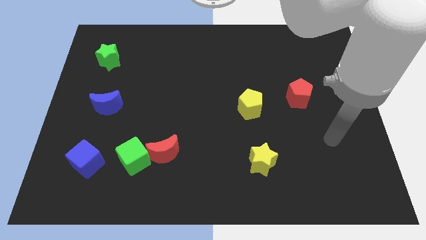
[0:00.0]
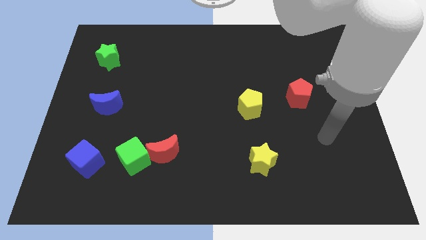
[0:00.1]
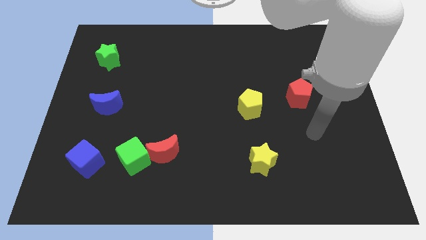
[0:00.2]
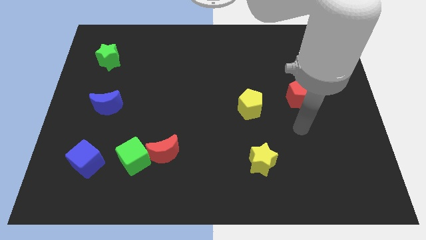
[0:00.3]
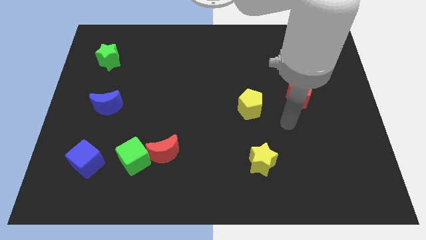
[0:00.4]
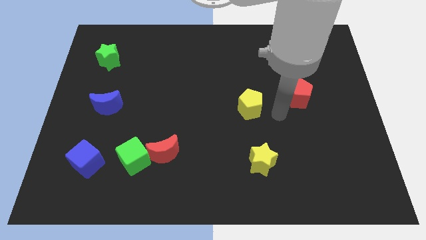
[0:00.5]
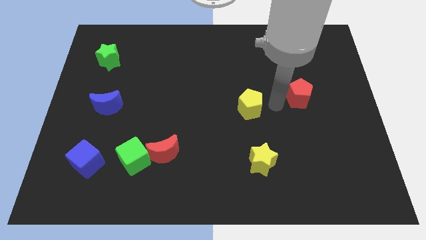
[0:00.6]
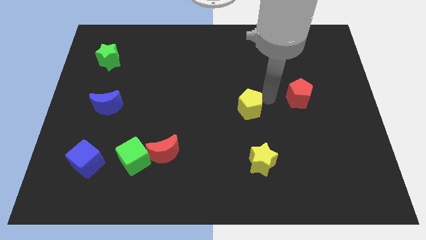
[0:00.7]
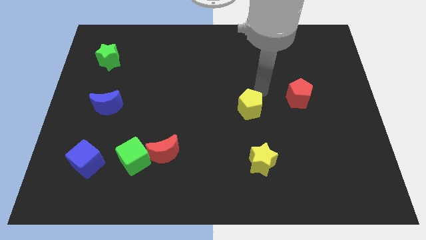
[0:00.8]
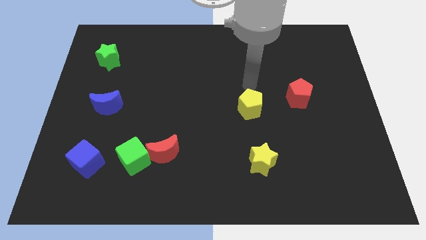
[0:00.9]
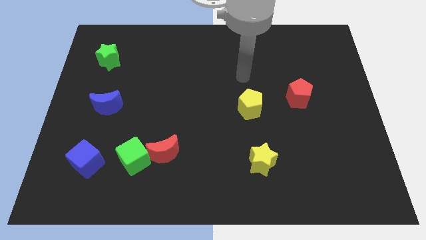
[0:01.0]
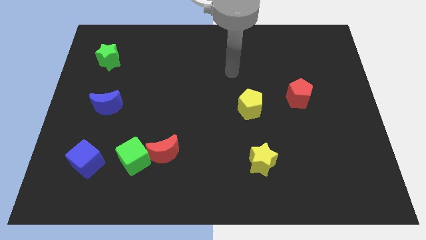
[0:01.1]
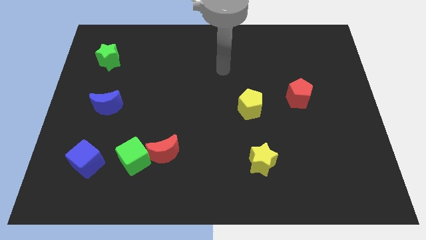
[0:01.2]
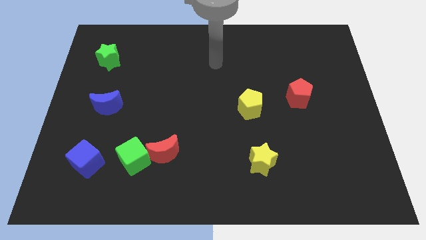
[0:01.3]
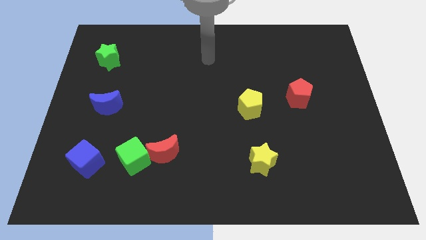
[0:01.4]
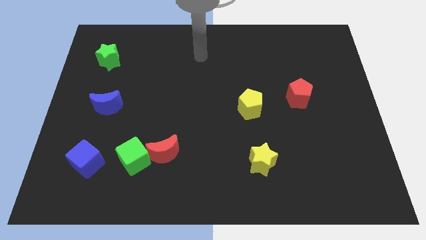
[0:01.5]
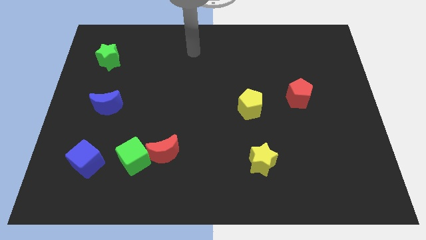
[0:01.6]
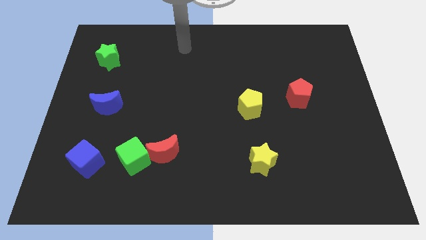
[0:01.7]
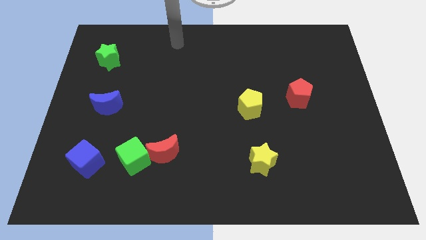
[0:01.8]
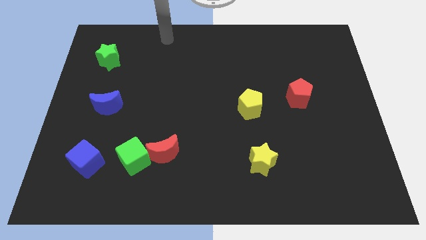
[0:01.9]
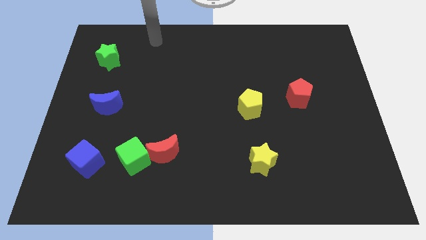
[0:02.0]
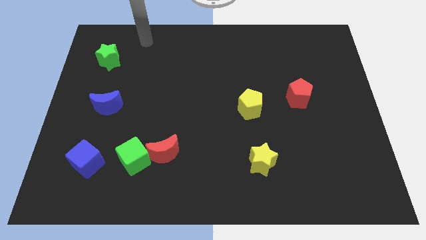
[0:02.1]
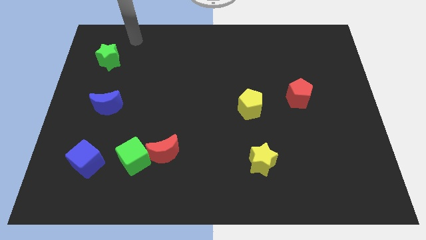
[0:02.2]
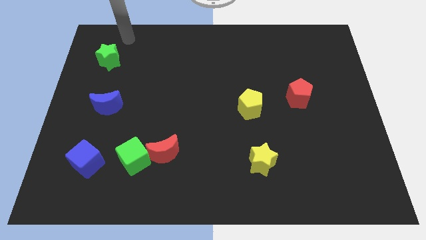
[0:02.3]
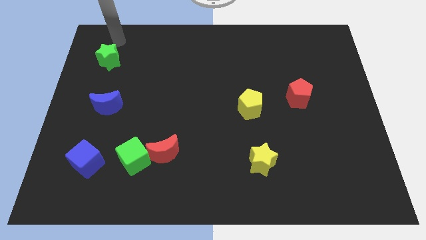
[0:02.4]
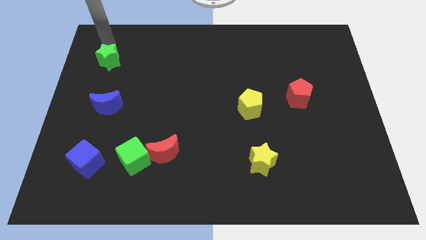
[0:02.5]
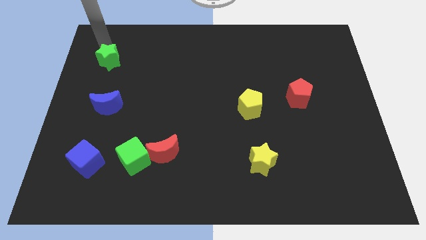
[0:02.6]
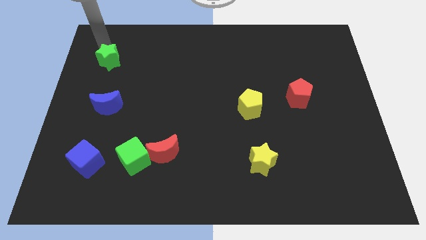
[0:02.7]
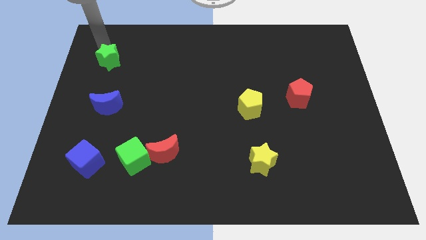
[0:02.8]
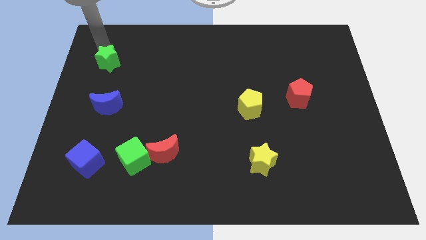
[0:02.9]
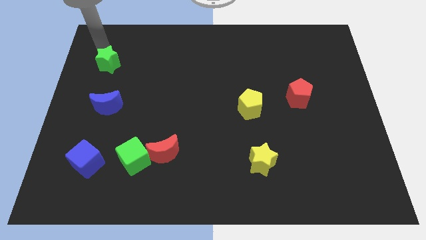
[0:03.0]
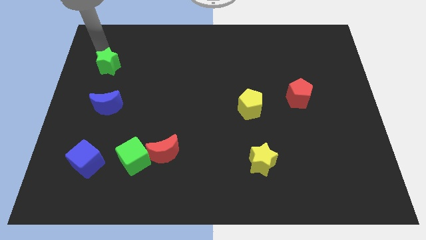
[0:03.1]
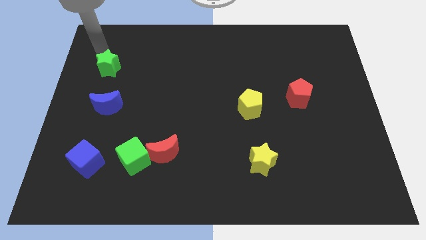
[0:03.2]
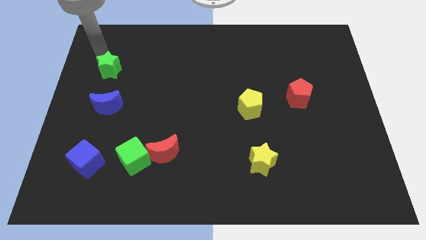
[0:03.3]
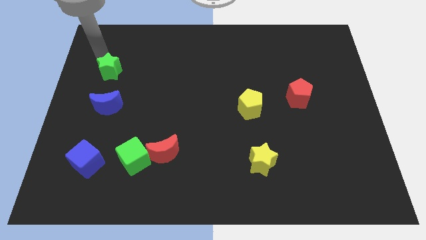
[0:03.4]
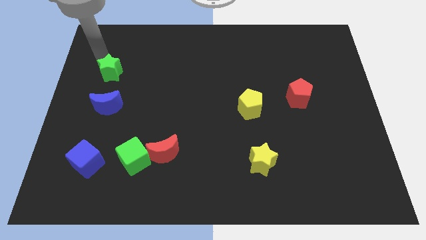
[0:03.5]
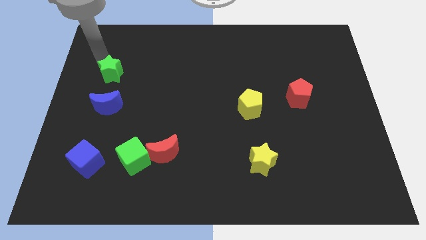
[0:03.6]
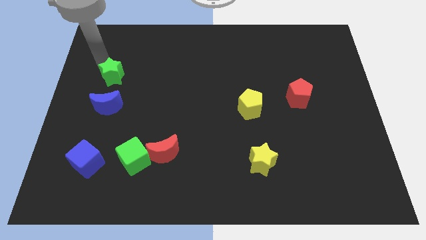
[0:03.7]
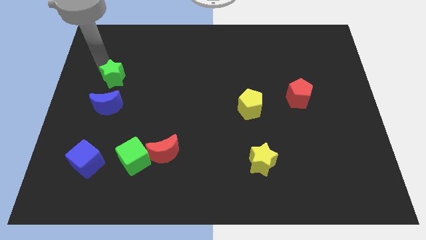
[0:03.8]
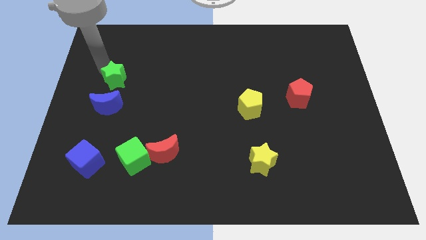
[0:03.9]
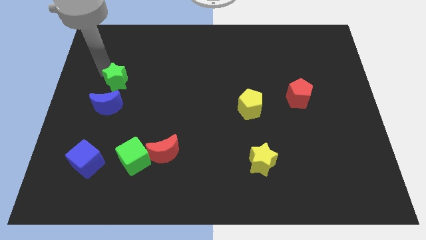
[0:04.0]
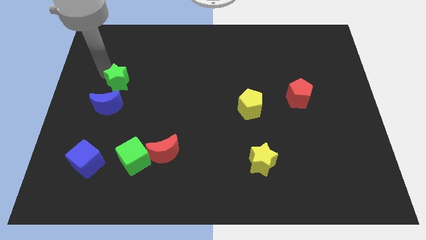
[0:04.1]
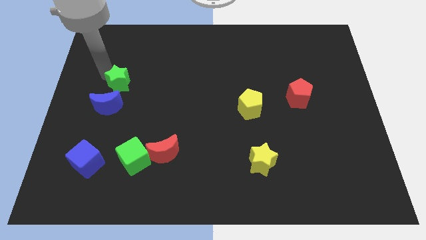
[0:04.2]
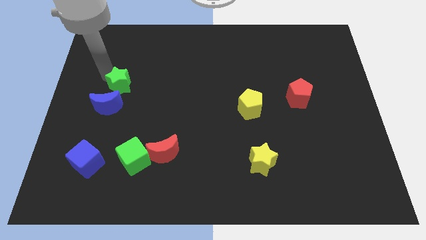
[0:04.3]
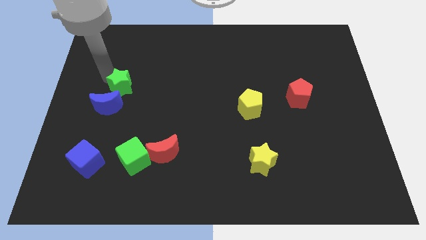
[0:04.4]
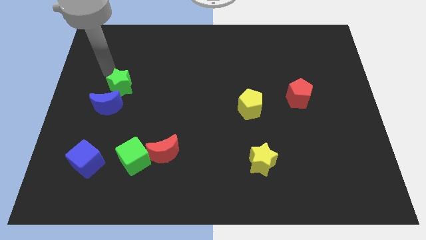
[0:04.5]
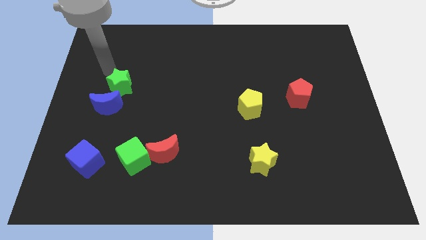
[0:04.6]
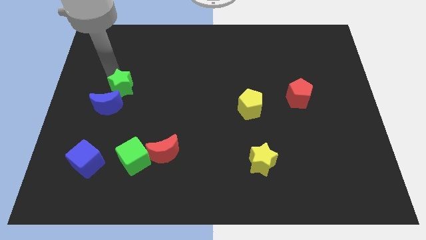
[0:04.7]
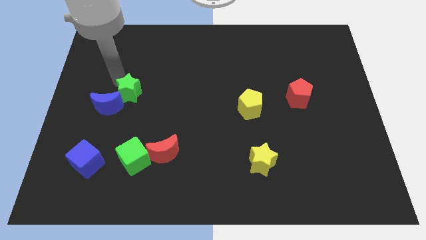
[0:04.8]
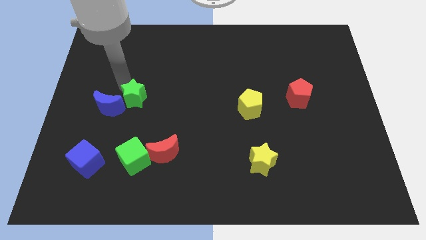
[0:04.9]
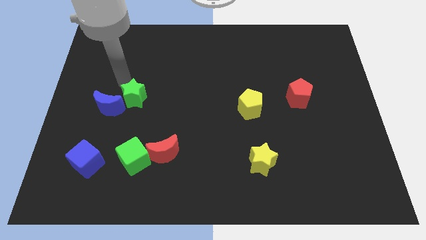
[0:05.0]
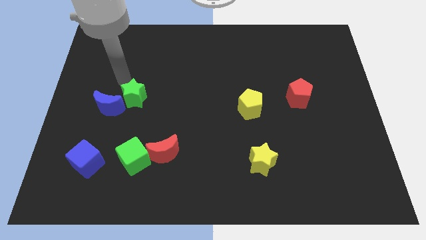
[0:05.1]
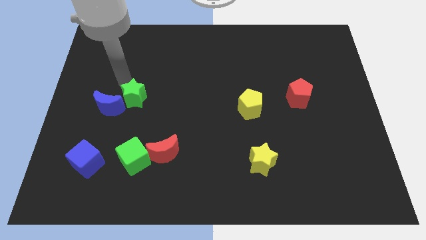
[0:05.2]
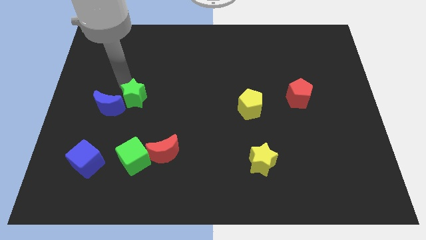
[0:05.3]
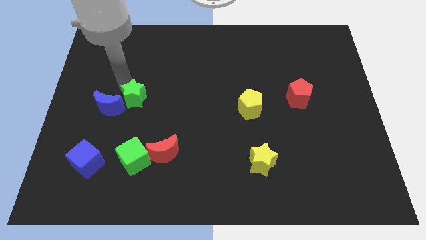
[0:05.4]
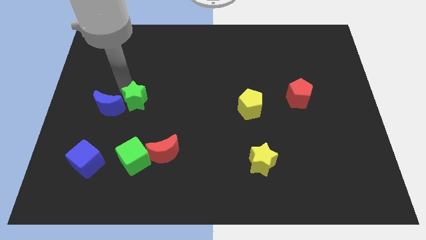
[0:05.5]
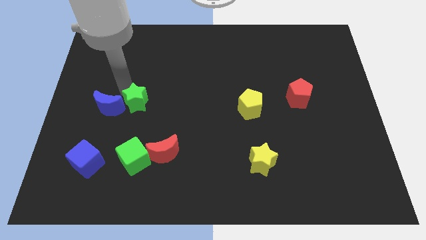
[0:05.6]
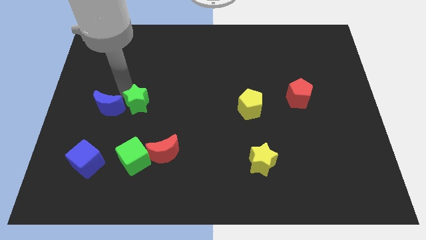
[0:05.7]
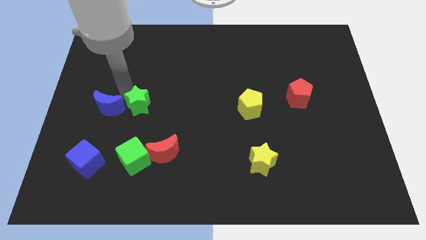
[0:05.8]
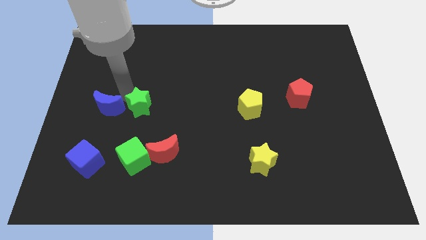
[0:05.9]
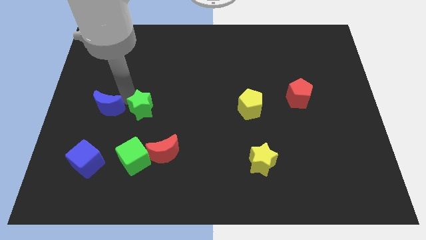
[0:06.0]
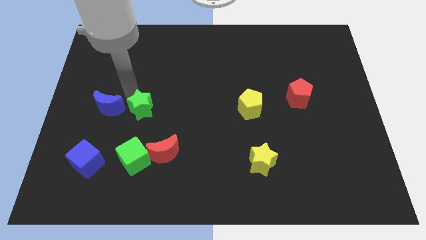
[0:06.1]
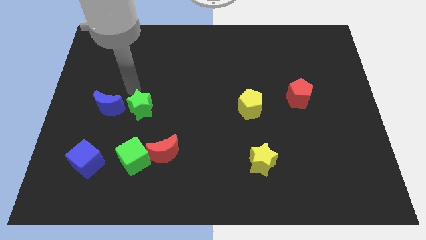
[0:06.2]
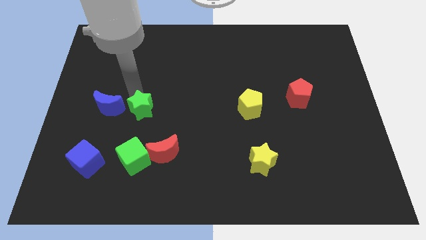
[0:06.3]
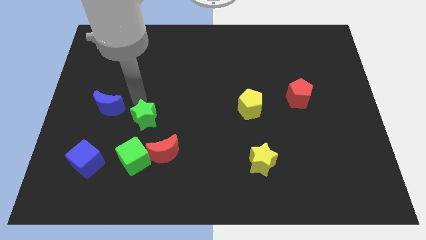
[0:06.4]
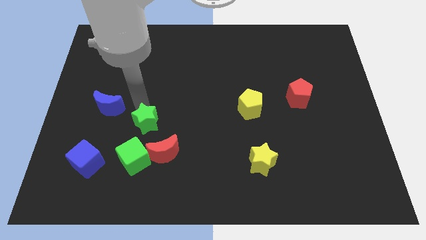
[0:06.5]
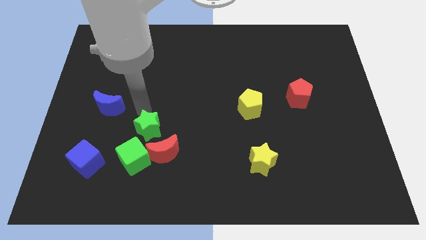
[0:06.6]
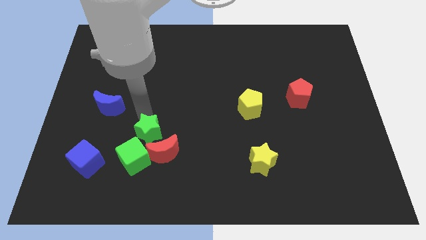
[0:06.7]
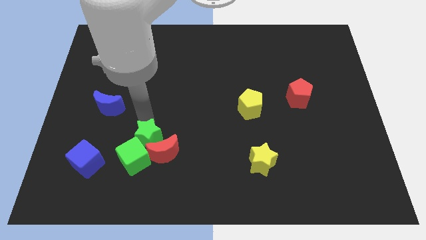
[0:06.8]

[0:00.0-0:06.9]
slide the green star next to the red moon
